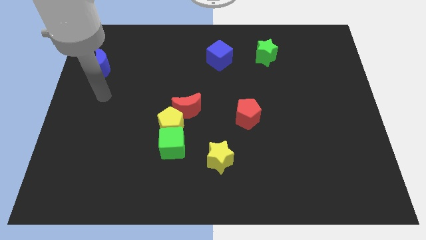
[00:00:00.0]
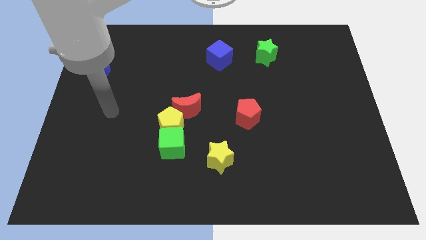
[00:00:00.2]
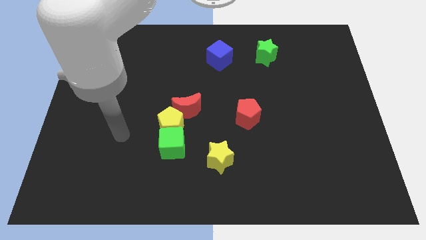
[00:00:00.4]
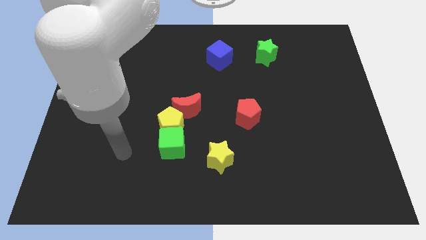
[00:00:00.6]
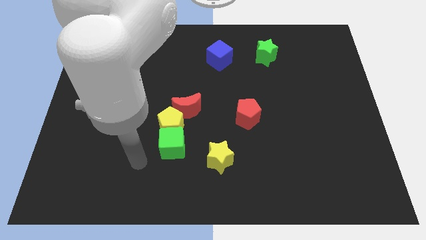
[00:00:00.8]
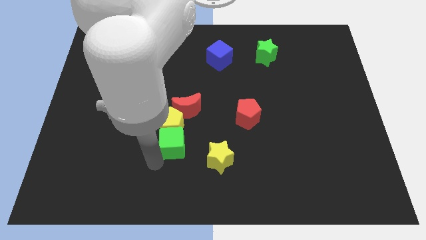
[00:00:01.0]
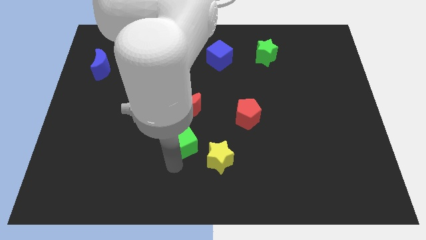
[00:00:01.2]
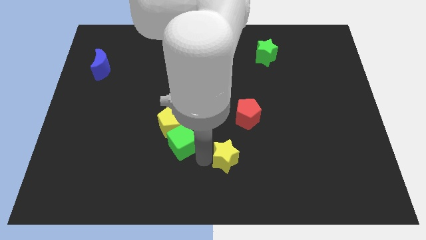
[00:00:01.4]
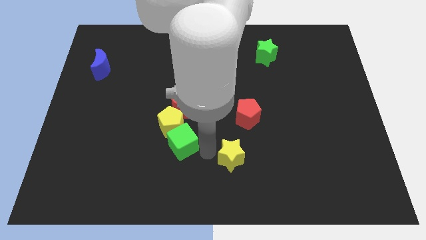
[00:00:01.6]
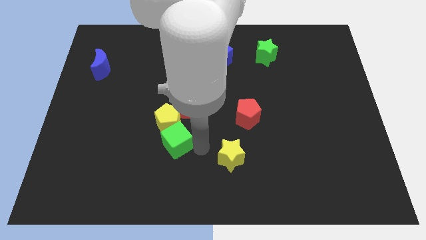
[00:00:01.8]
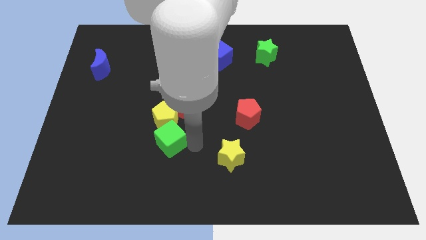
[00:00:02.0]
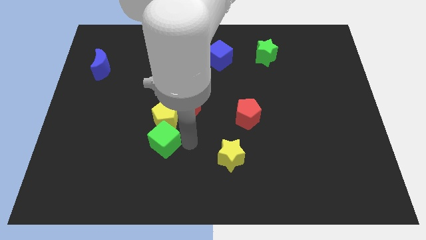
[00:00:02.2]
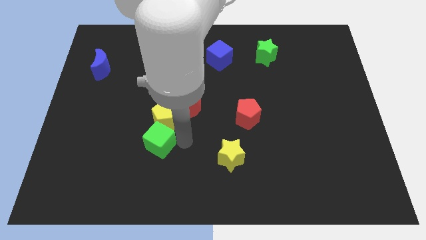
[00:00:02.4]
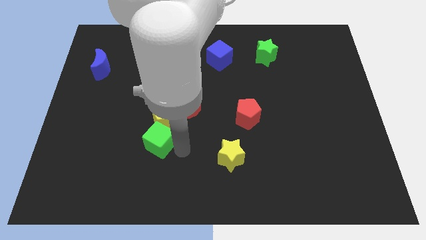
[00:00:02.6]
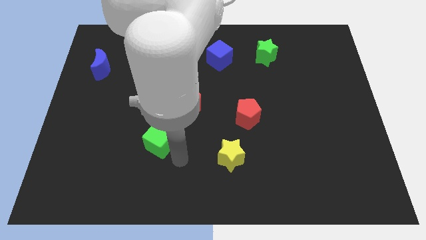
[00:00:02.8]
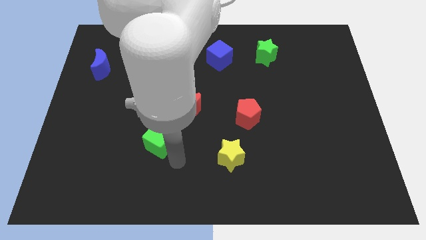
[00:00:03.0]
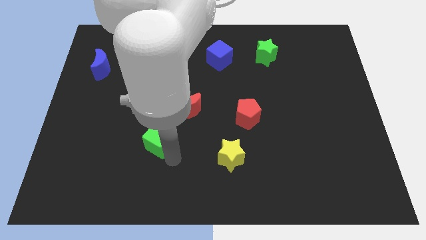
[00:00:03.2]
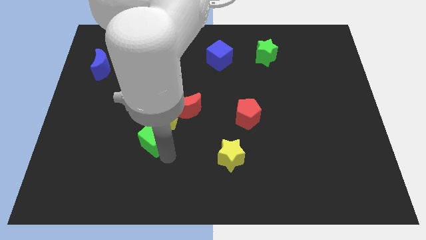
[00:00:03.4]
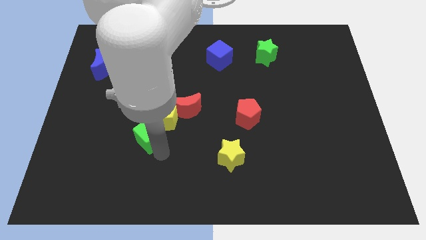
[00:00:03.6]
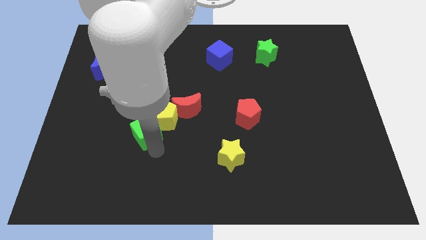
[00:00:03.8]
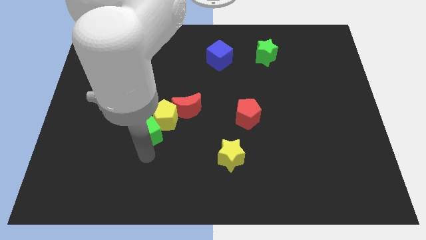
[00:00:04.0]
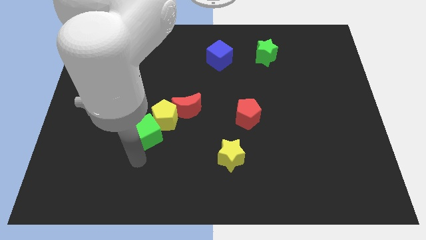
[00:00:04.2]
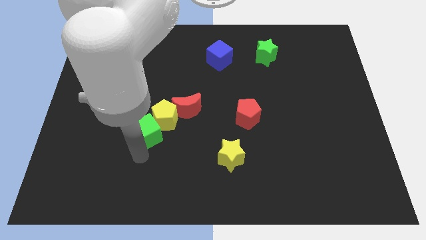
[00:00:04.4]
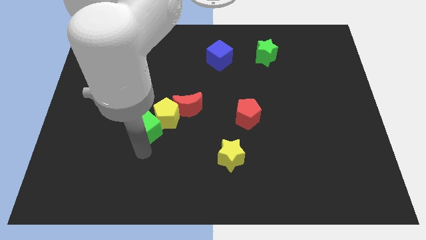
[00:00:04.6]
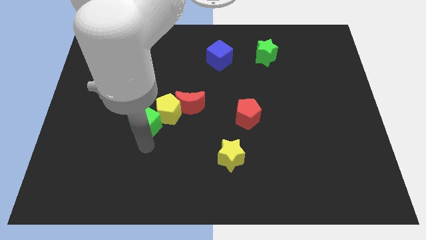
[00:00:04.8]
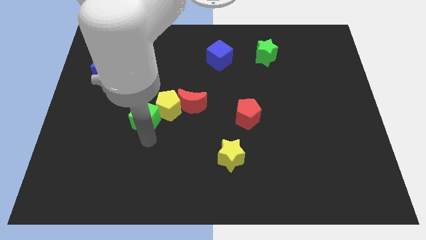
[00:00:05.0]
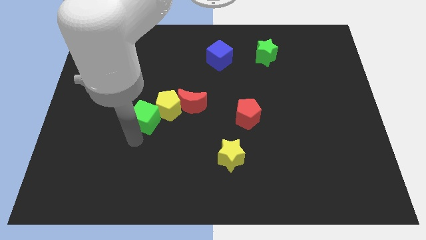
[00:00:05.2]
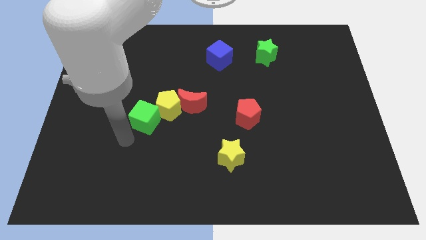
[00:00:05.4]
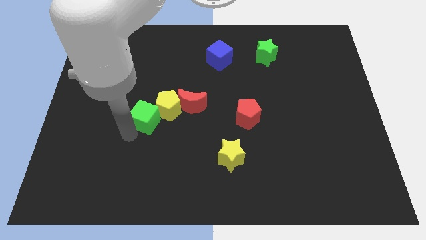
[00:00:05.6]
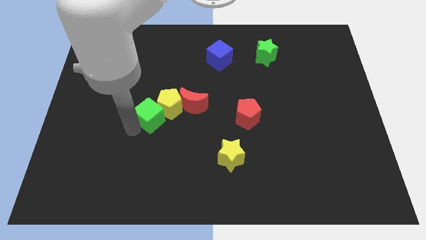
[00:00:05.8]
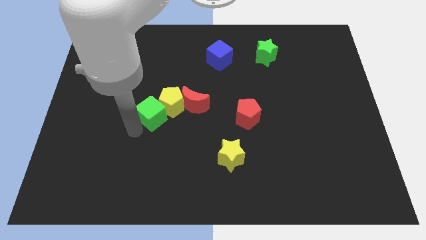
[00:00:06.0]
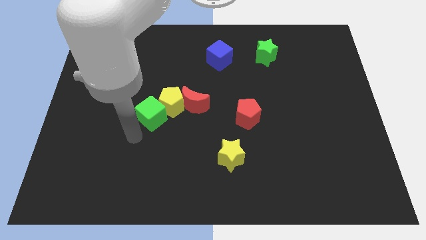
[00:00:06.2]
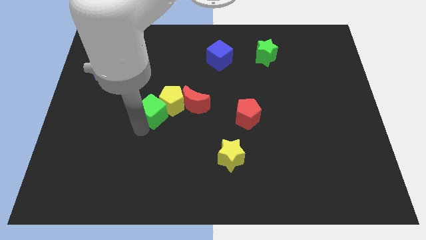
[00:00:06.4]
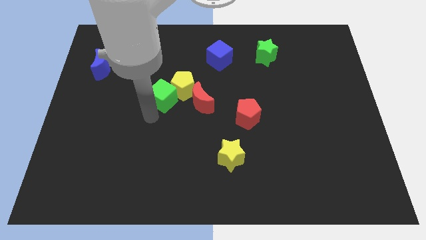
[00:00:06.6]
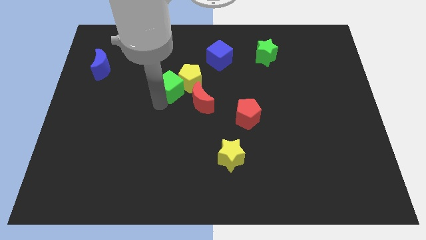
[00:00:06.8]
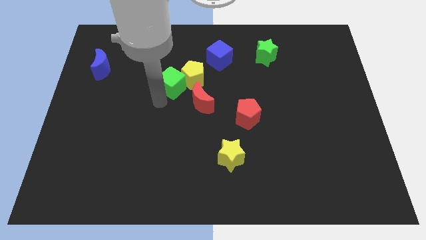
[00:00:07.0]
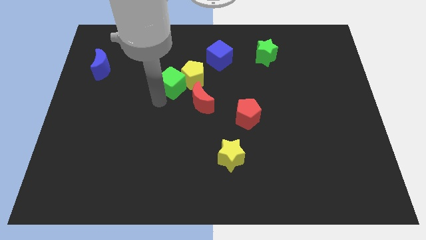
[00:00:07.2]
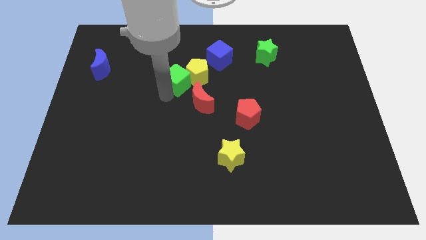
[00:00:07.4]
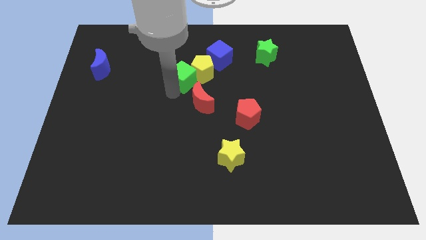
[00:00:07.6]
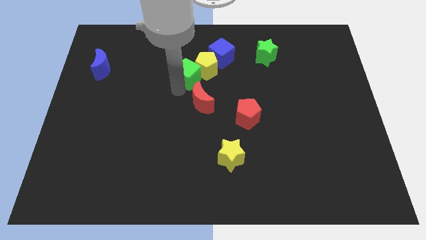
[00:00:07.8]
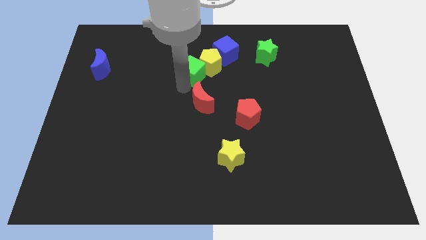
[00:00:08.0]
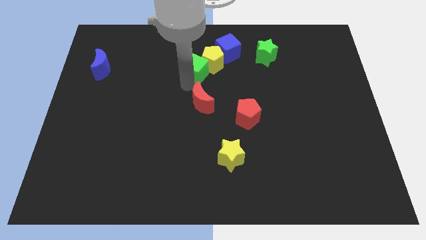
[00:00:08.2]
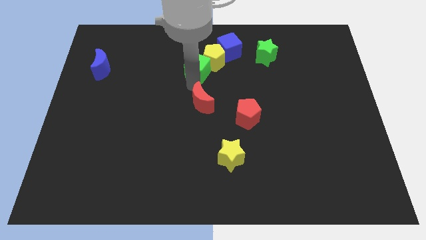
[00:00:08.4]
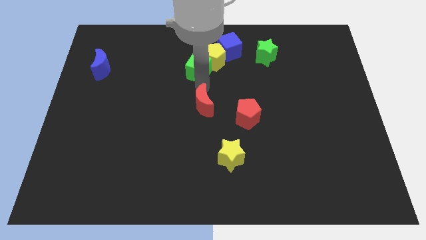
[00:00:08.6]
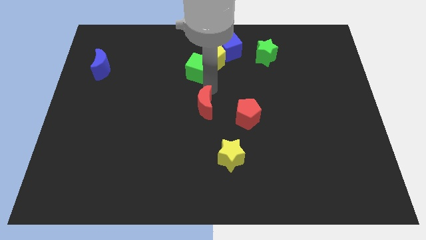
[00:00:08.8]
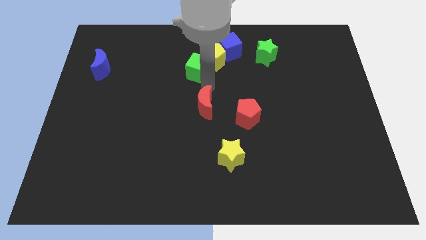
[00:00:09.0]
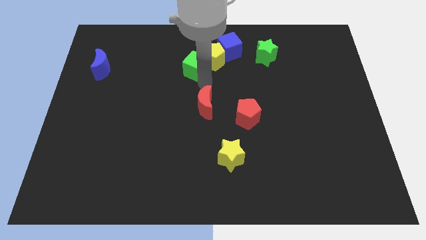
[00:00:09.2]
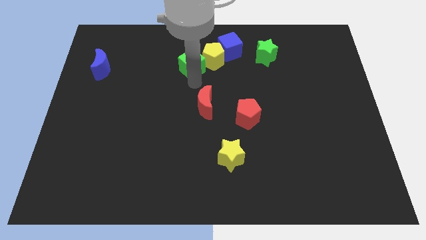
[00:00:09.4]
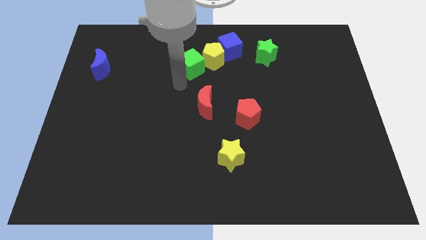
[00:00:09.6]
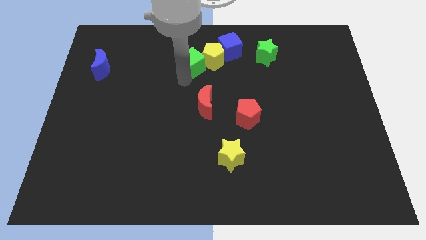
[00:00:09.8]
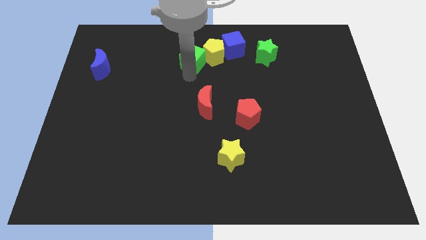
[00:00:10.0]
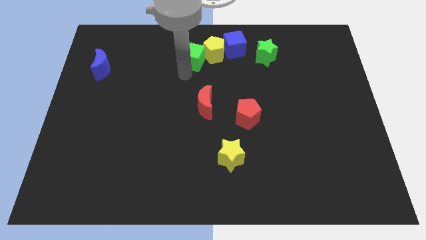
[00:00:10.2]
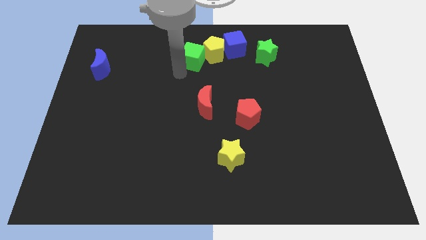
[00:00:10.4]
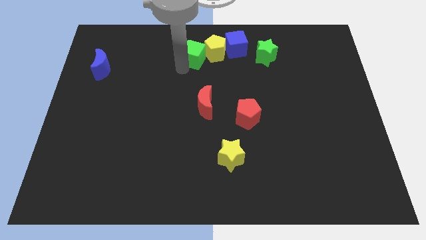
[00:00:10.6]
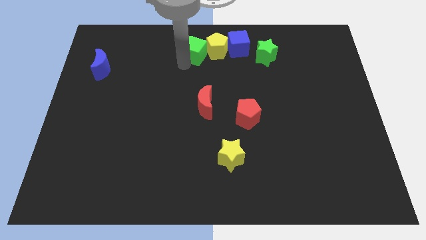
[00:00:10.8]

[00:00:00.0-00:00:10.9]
slide the green cube to the top
